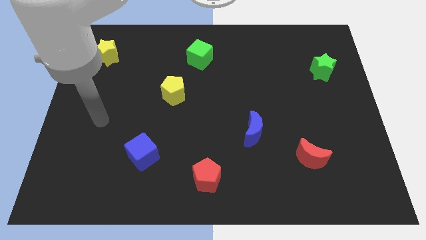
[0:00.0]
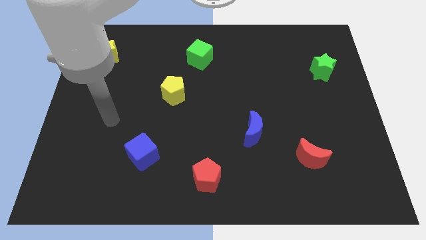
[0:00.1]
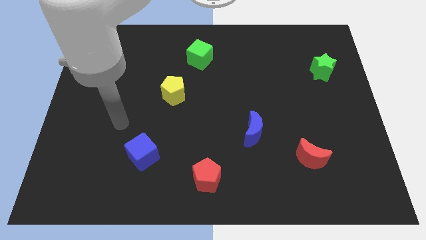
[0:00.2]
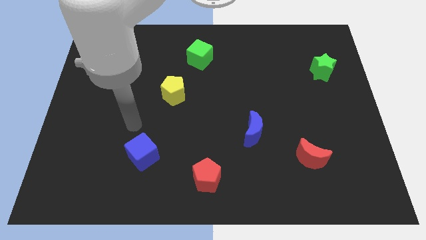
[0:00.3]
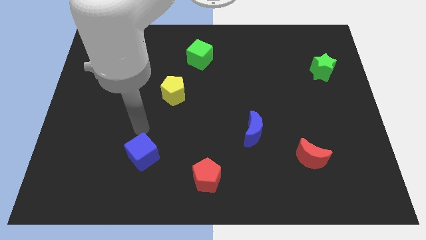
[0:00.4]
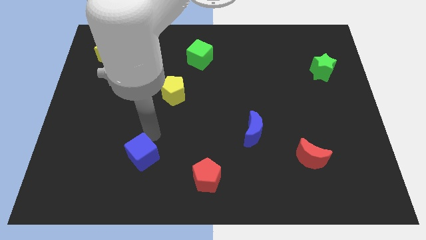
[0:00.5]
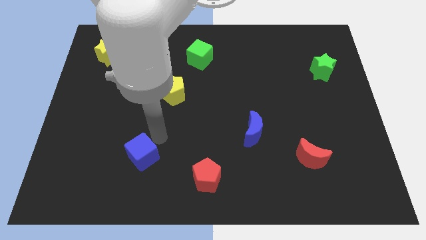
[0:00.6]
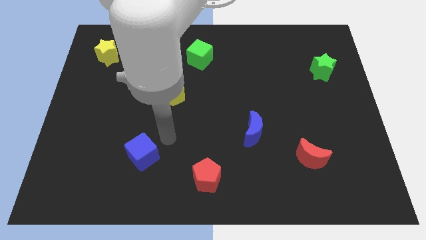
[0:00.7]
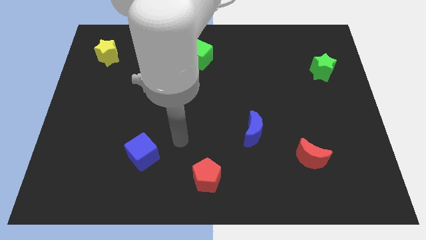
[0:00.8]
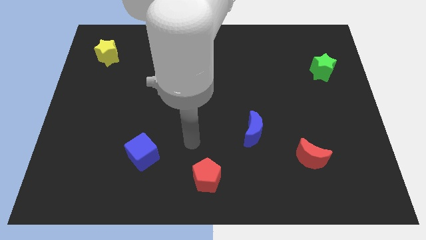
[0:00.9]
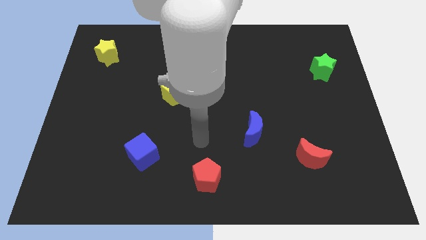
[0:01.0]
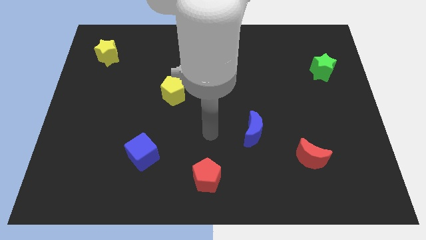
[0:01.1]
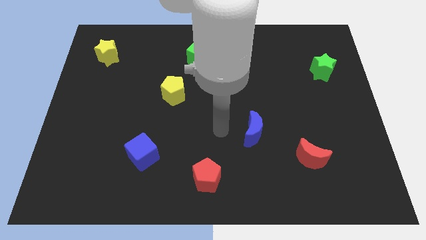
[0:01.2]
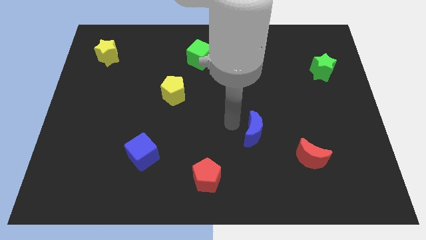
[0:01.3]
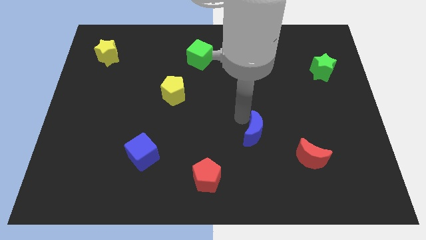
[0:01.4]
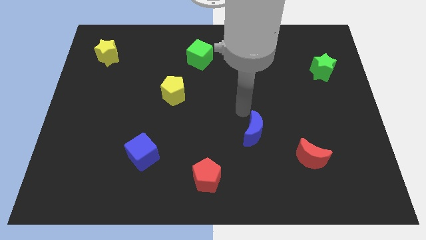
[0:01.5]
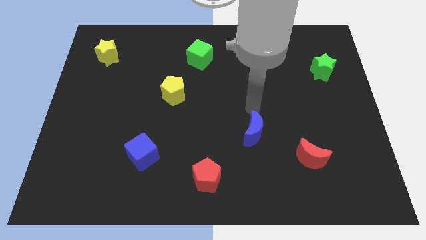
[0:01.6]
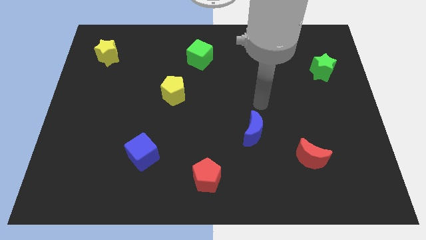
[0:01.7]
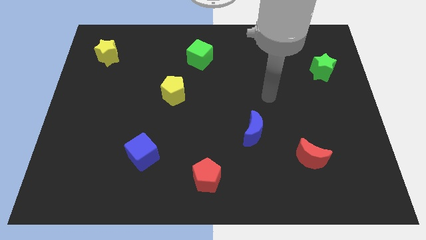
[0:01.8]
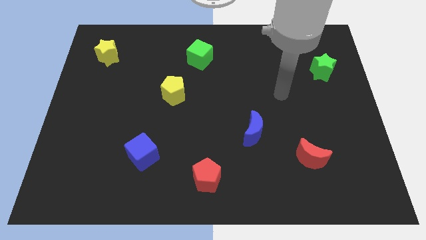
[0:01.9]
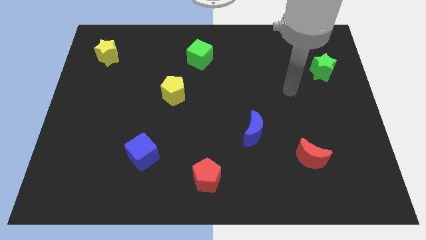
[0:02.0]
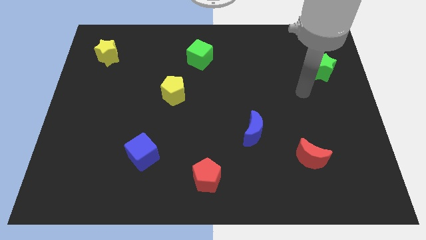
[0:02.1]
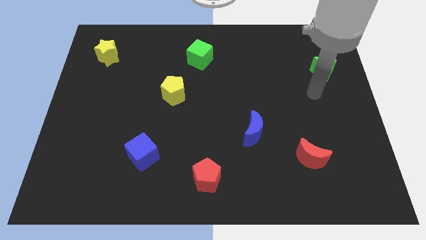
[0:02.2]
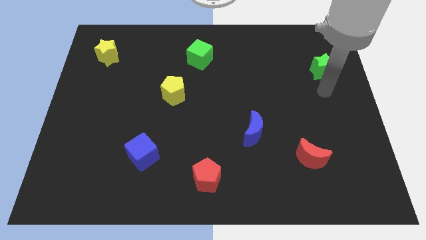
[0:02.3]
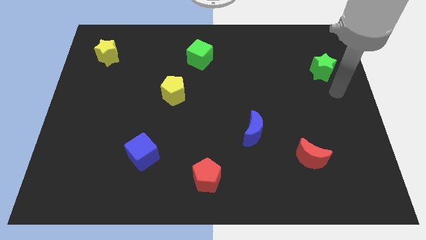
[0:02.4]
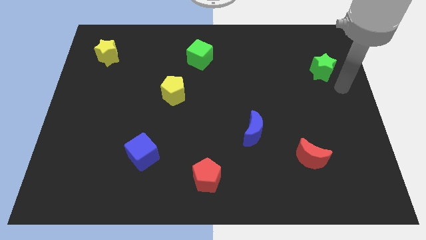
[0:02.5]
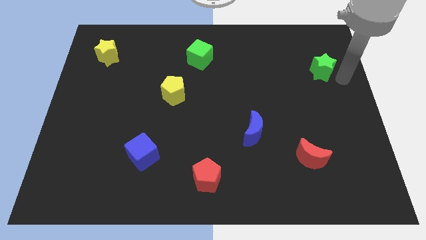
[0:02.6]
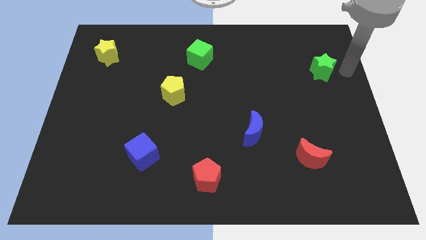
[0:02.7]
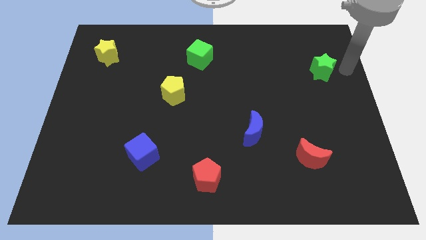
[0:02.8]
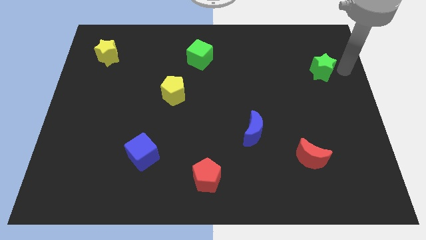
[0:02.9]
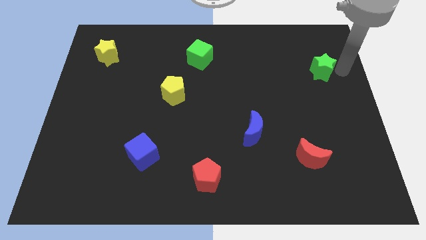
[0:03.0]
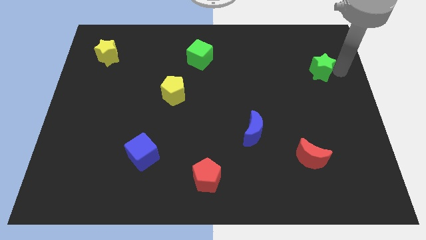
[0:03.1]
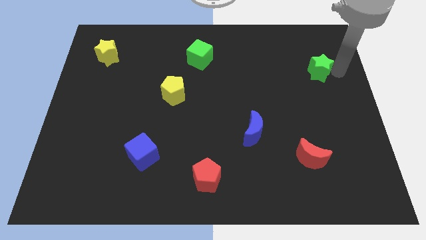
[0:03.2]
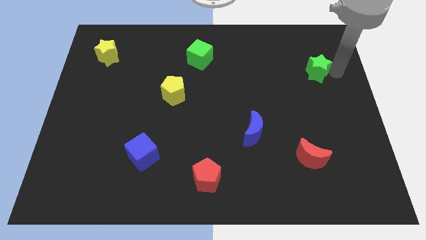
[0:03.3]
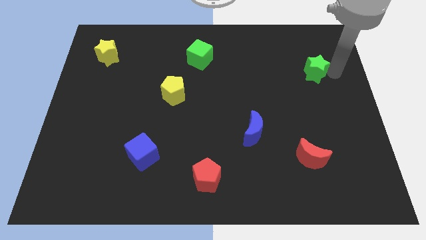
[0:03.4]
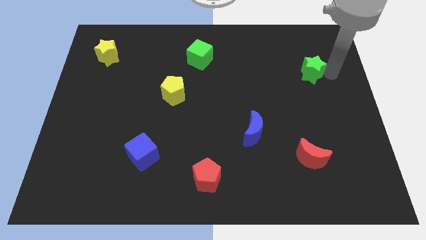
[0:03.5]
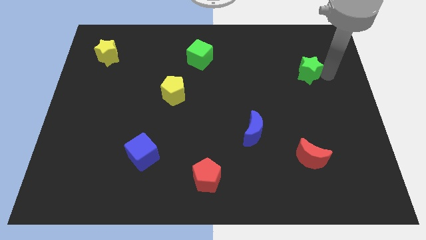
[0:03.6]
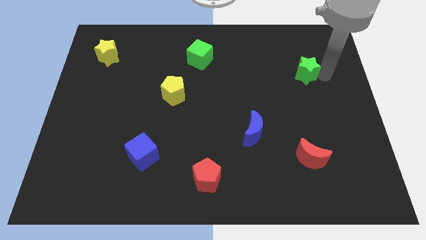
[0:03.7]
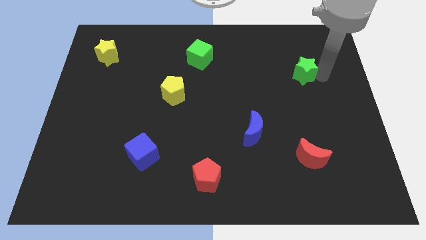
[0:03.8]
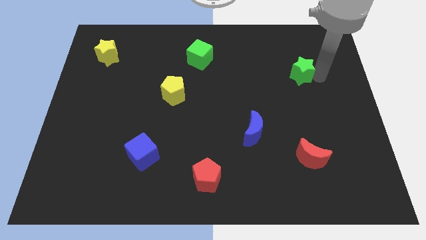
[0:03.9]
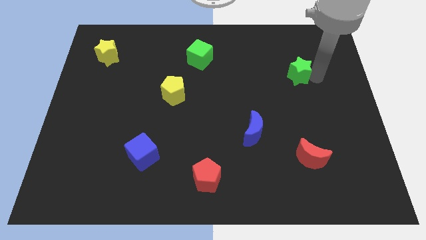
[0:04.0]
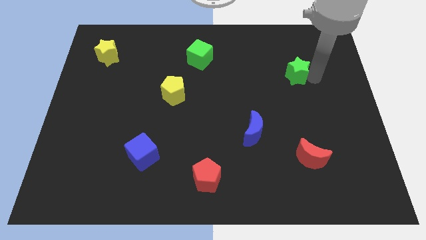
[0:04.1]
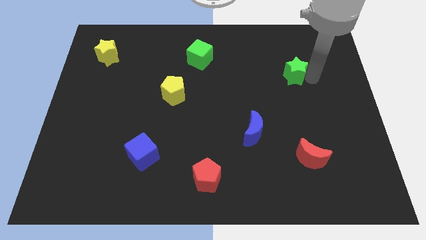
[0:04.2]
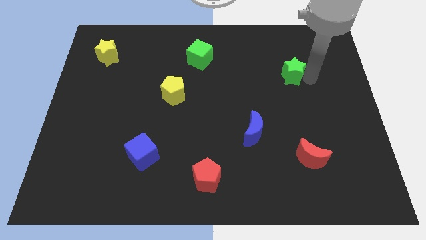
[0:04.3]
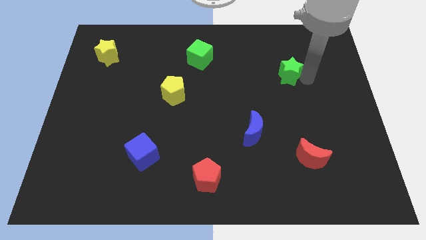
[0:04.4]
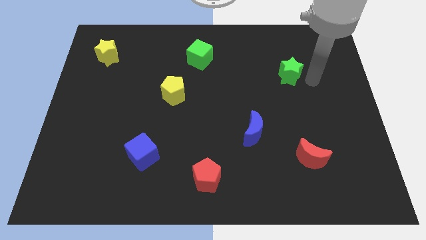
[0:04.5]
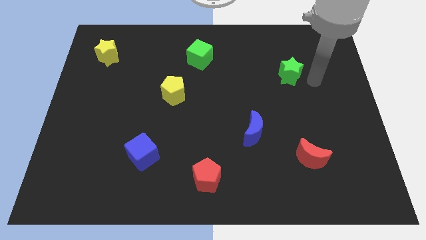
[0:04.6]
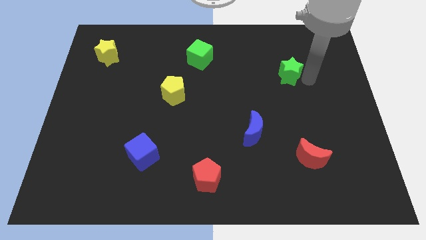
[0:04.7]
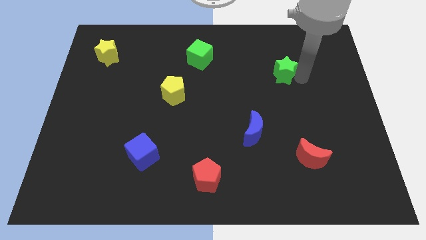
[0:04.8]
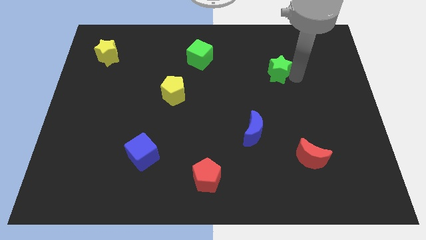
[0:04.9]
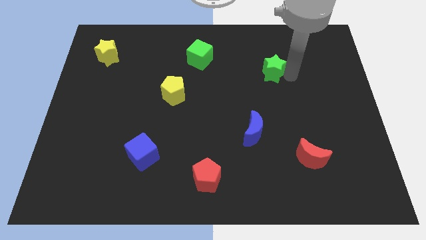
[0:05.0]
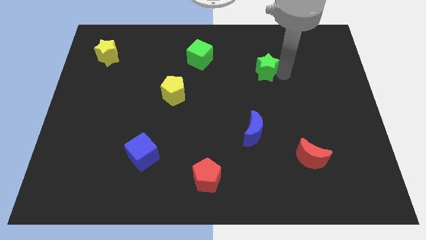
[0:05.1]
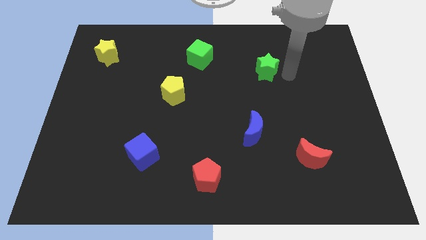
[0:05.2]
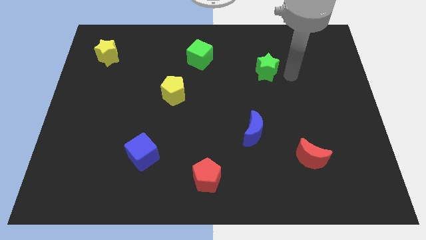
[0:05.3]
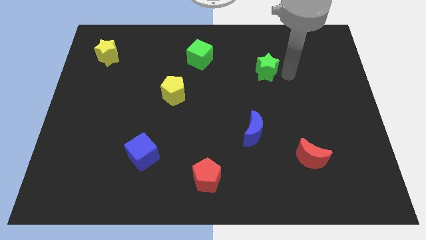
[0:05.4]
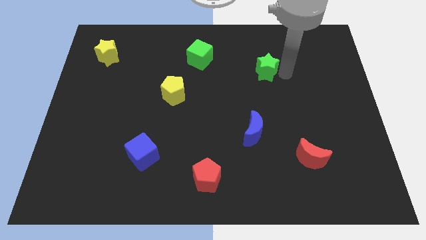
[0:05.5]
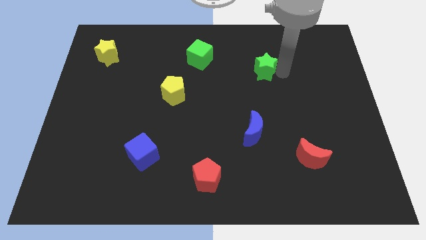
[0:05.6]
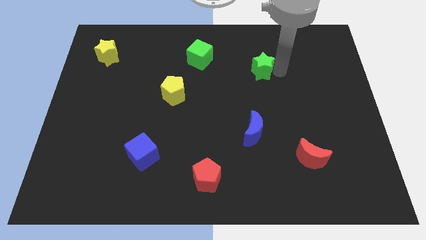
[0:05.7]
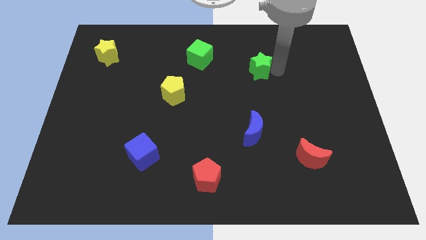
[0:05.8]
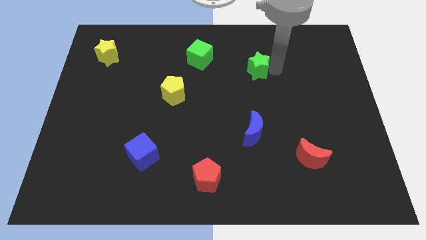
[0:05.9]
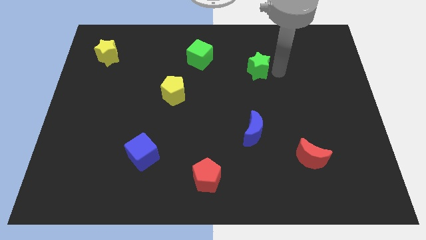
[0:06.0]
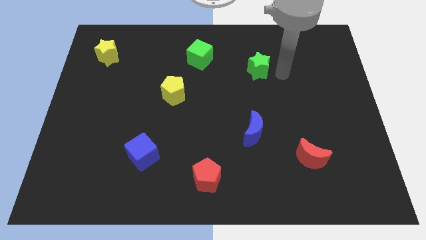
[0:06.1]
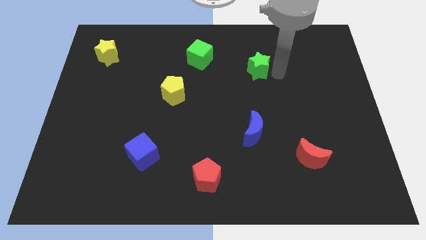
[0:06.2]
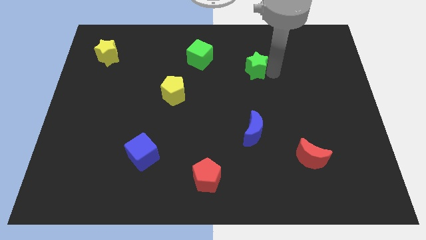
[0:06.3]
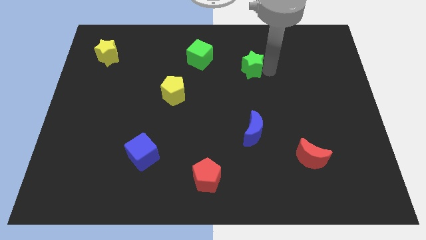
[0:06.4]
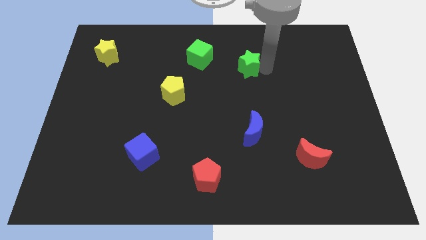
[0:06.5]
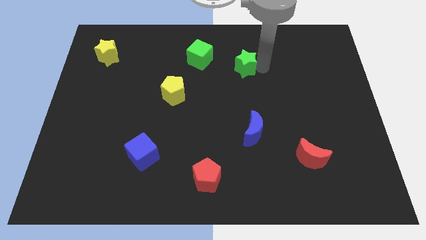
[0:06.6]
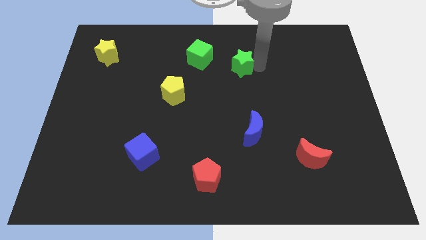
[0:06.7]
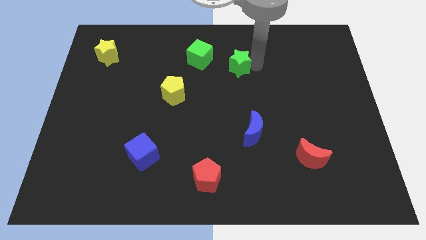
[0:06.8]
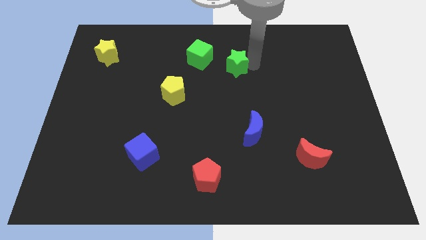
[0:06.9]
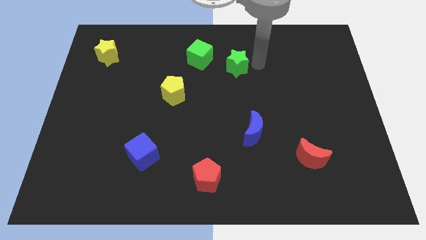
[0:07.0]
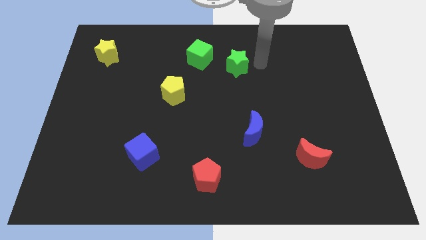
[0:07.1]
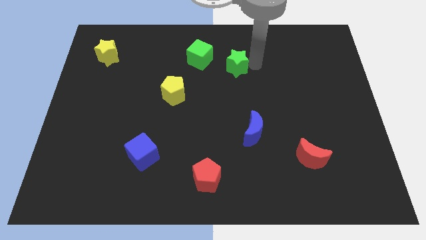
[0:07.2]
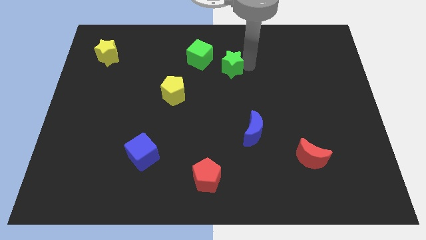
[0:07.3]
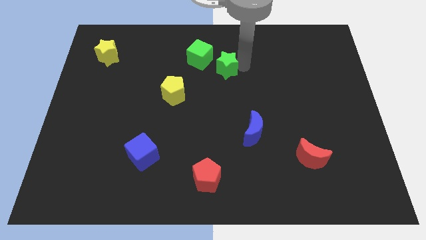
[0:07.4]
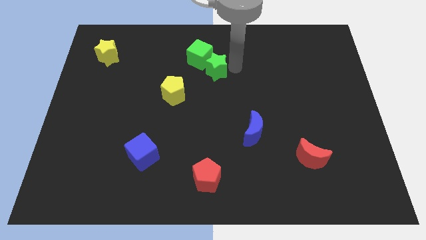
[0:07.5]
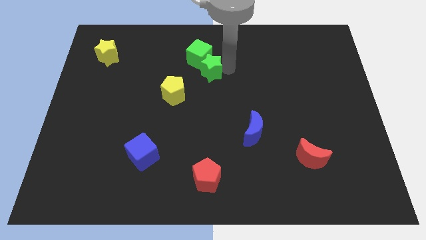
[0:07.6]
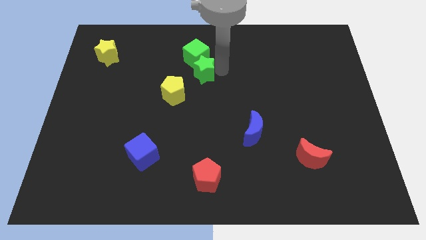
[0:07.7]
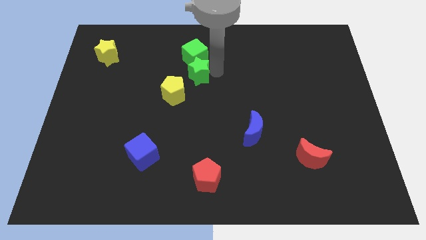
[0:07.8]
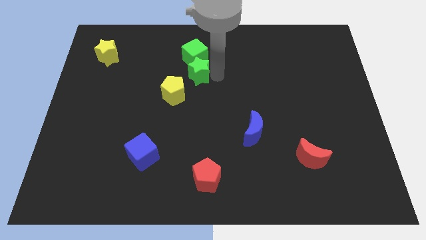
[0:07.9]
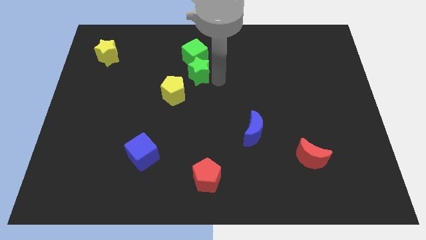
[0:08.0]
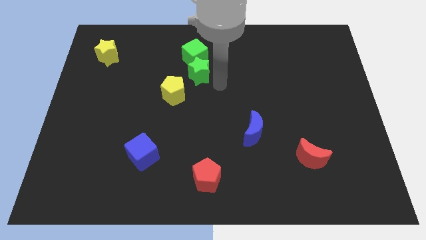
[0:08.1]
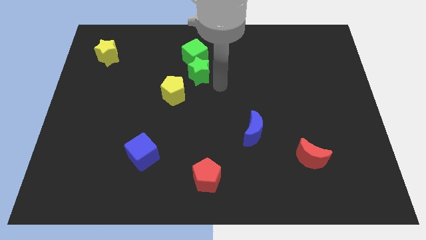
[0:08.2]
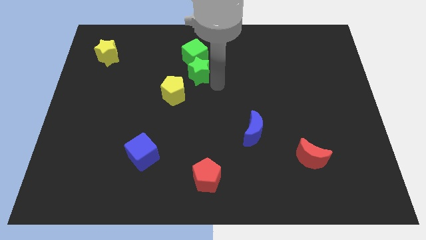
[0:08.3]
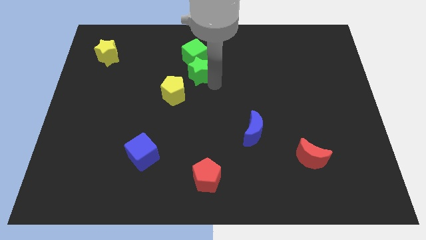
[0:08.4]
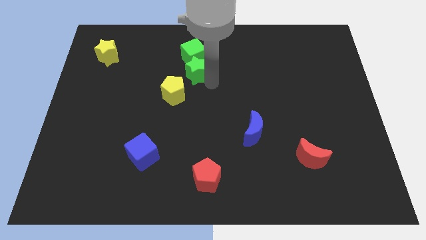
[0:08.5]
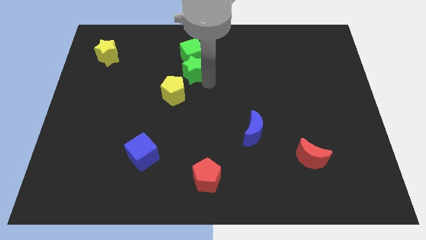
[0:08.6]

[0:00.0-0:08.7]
slide the green star to the top of the yellow pentagon
